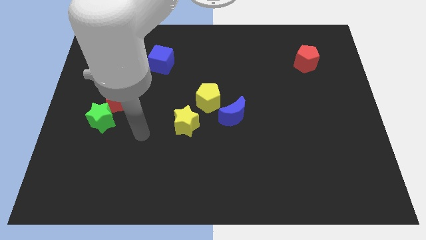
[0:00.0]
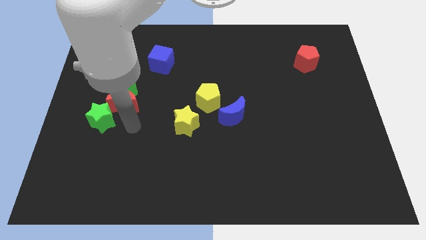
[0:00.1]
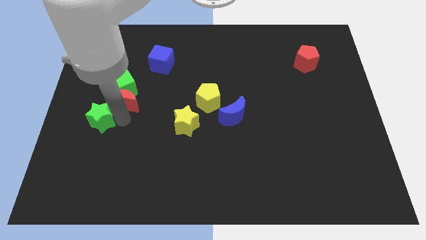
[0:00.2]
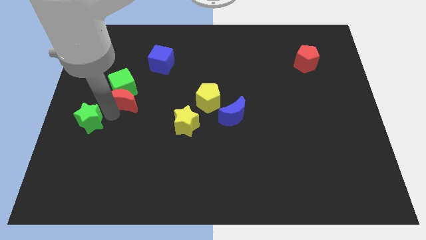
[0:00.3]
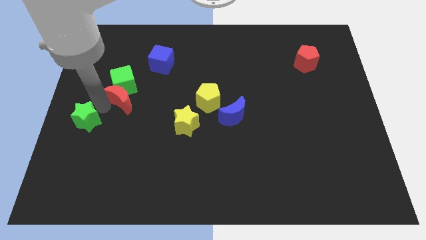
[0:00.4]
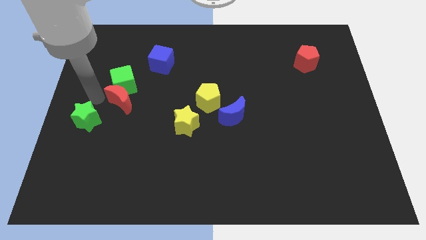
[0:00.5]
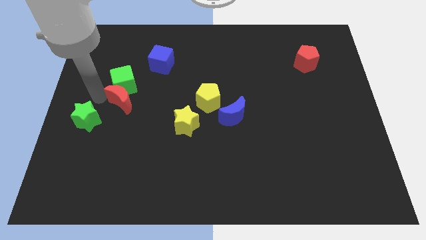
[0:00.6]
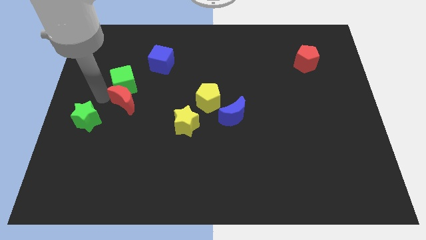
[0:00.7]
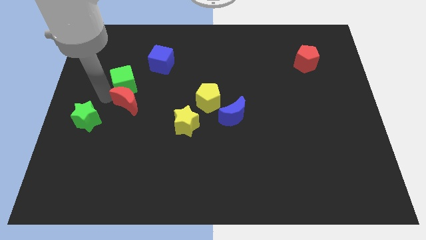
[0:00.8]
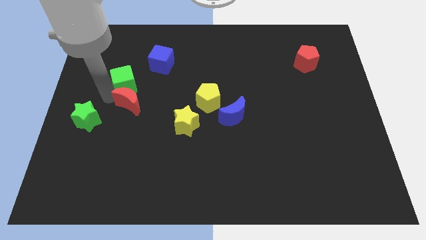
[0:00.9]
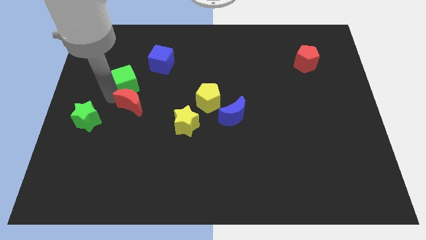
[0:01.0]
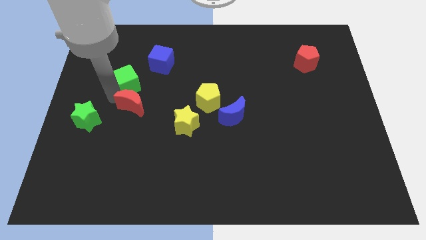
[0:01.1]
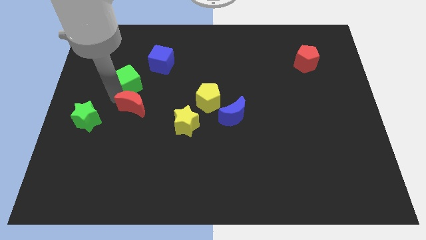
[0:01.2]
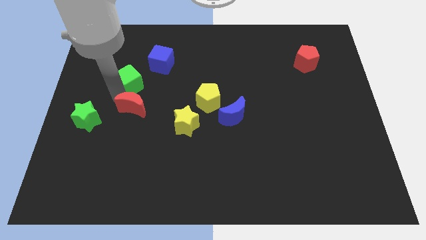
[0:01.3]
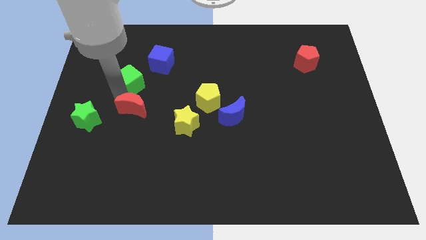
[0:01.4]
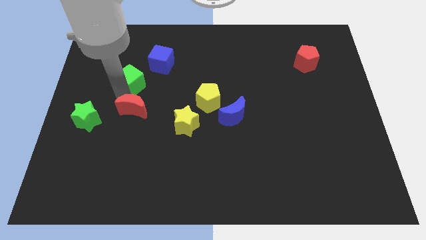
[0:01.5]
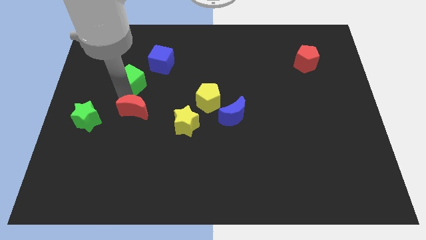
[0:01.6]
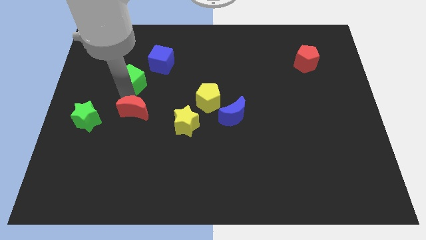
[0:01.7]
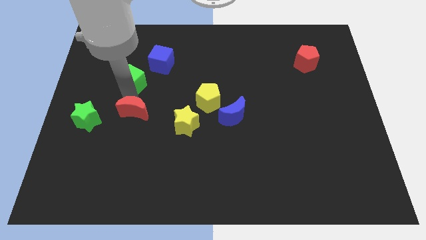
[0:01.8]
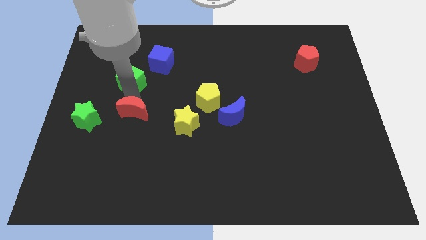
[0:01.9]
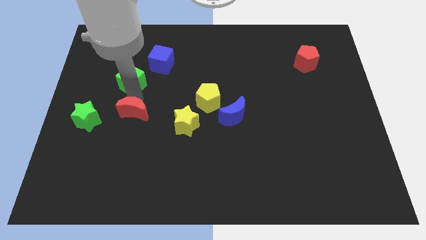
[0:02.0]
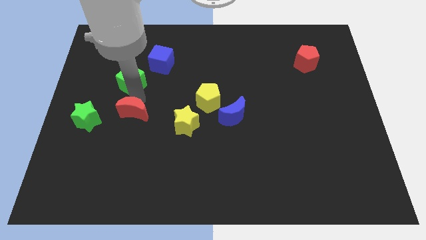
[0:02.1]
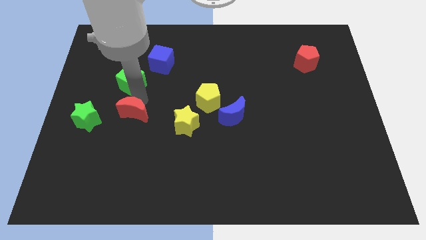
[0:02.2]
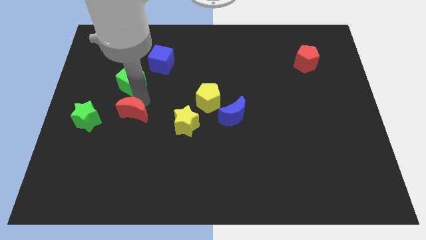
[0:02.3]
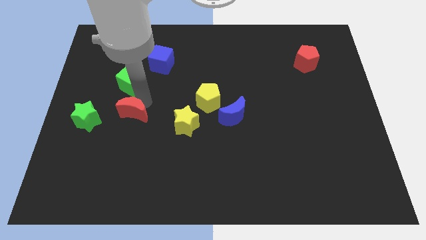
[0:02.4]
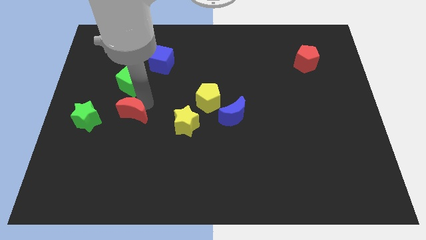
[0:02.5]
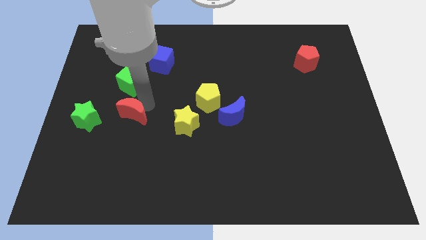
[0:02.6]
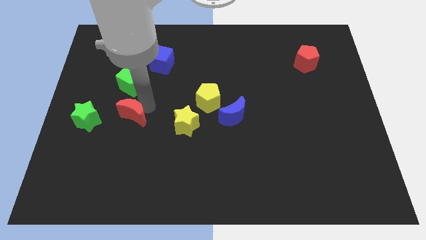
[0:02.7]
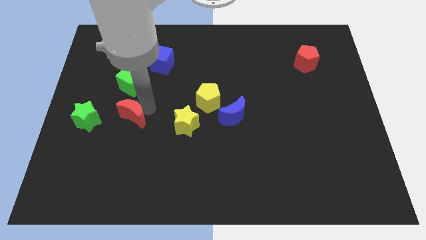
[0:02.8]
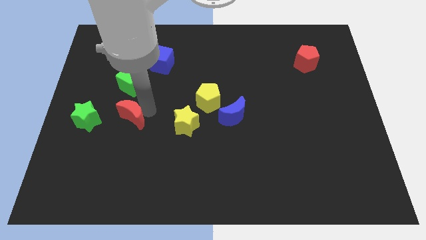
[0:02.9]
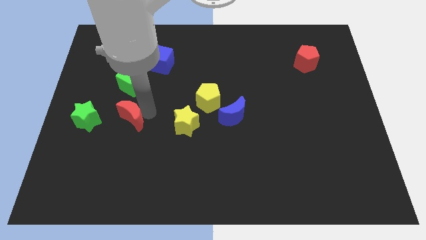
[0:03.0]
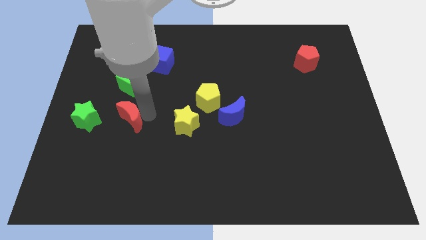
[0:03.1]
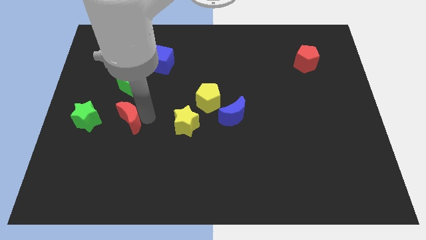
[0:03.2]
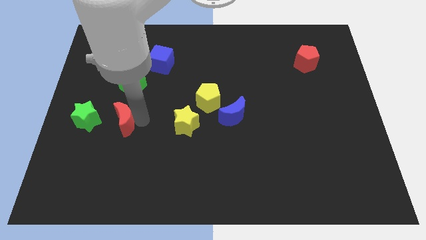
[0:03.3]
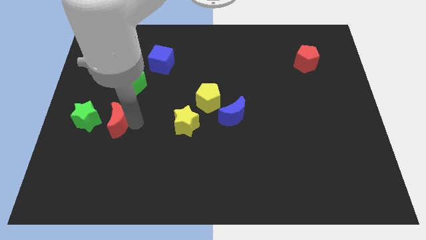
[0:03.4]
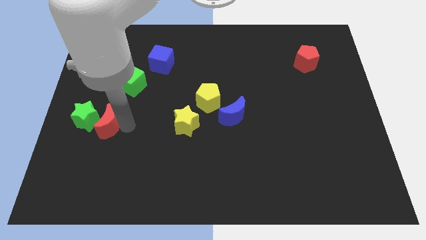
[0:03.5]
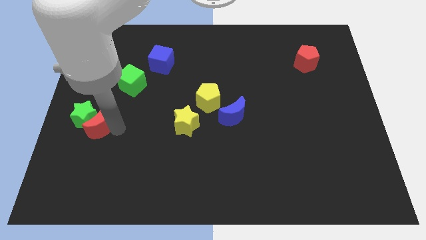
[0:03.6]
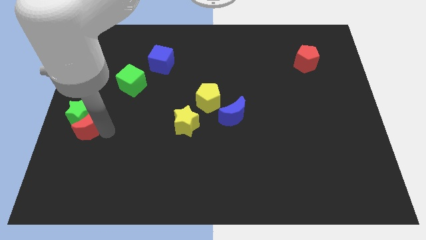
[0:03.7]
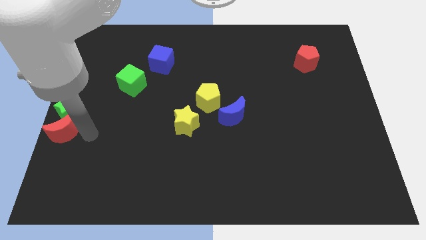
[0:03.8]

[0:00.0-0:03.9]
pull the red moon apart from the green cube and green star

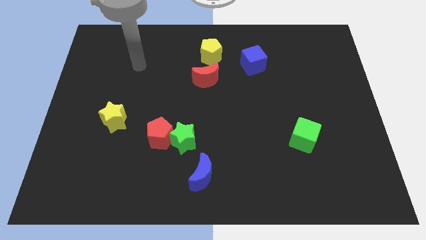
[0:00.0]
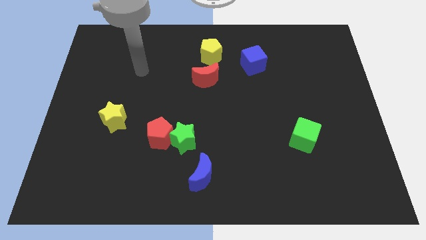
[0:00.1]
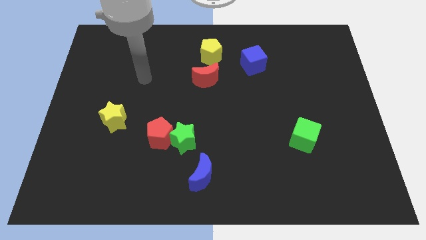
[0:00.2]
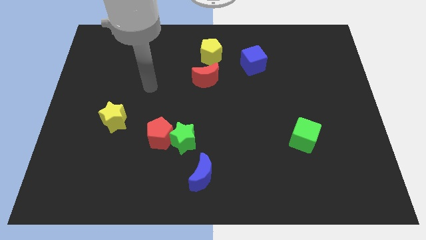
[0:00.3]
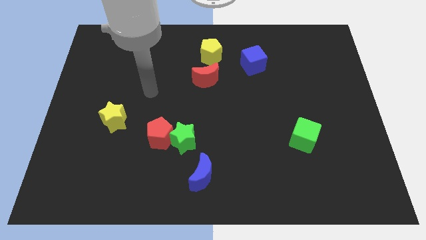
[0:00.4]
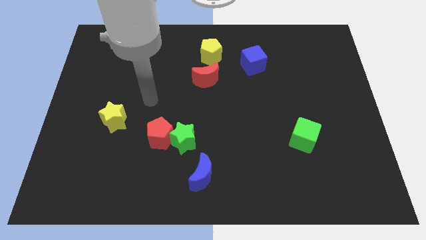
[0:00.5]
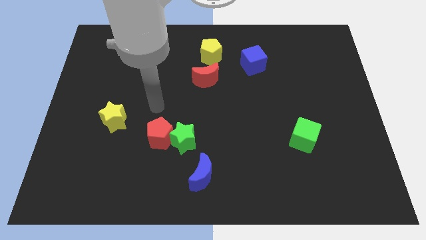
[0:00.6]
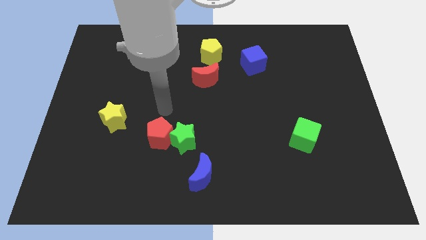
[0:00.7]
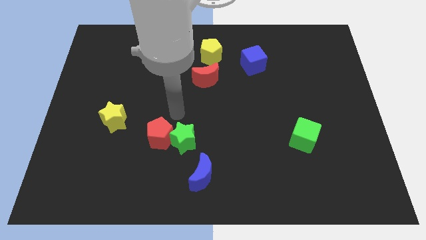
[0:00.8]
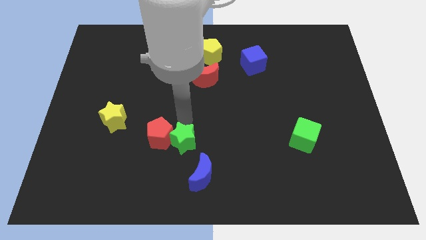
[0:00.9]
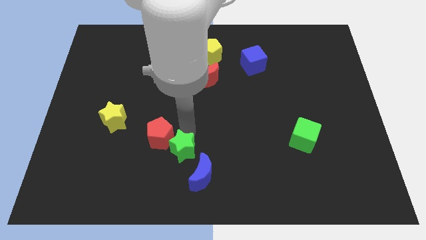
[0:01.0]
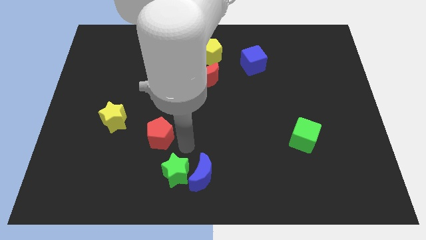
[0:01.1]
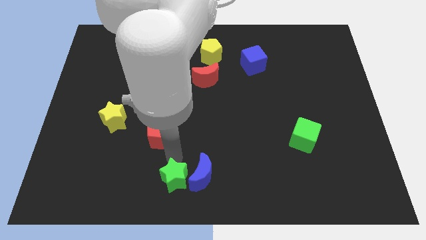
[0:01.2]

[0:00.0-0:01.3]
pull the red pentagon apart from the green star

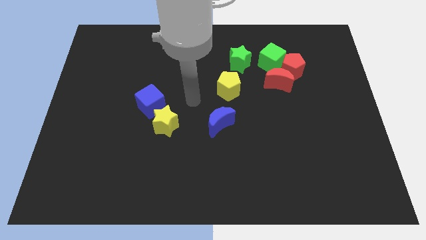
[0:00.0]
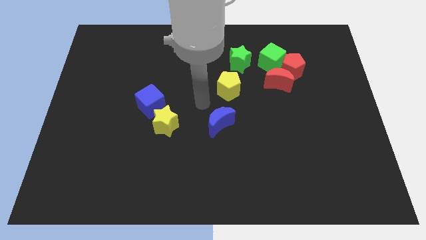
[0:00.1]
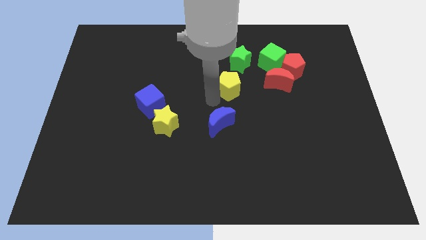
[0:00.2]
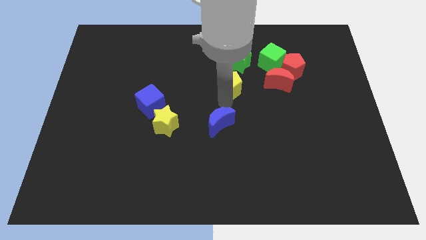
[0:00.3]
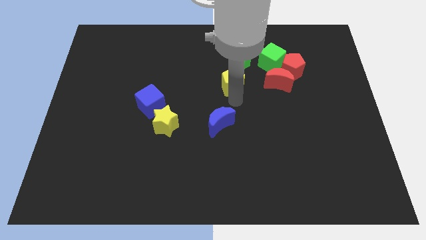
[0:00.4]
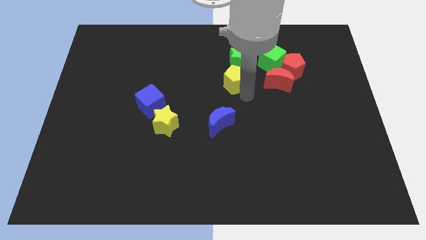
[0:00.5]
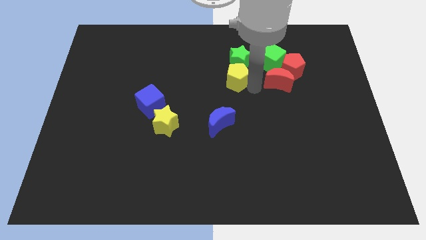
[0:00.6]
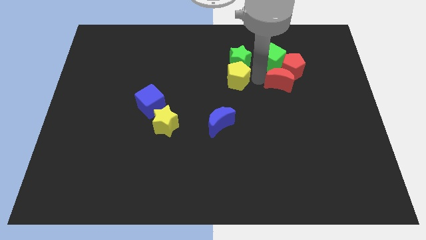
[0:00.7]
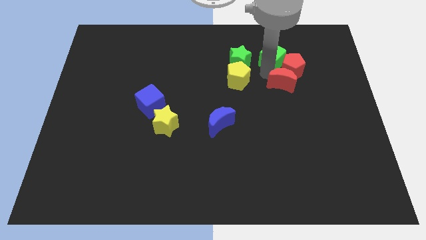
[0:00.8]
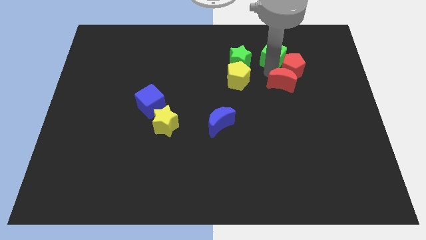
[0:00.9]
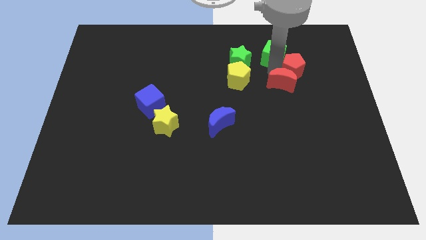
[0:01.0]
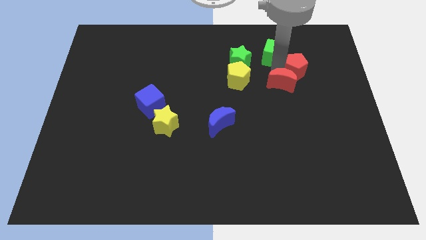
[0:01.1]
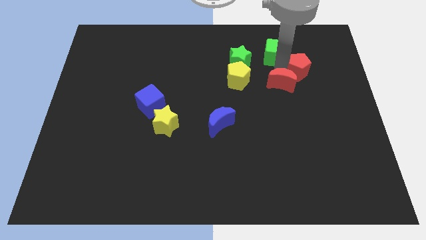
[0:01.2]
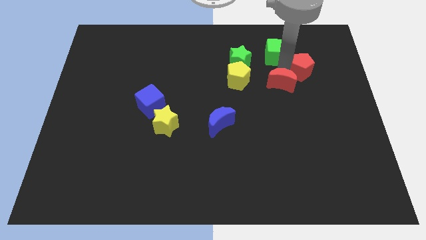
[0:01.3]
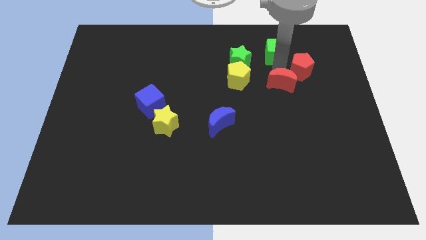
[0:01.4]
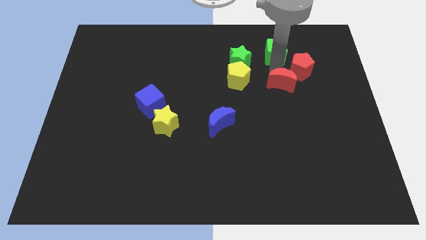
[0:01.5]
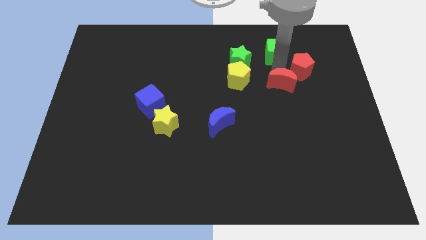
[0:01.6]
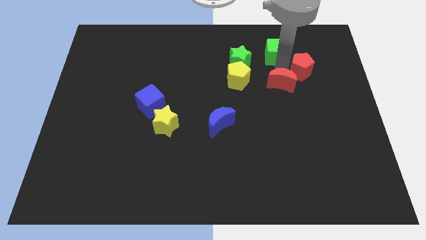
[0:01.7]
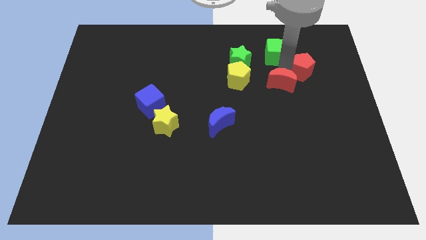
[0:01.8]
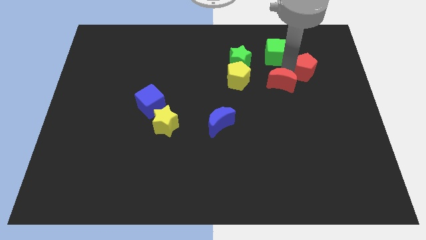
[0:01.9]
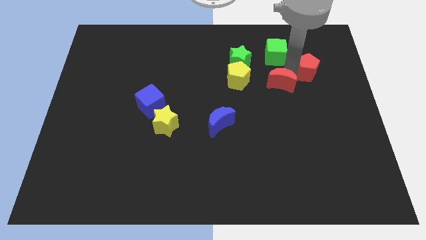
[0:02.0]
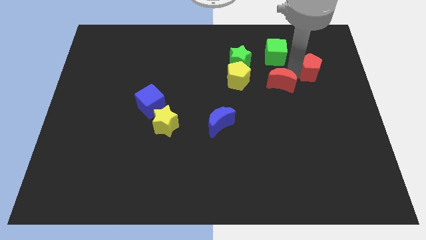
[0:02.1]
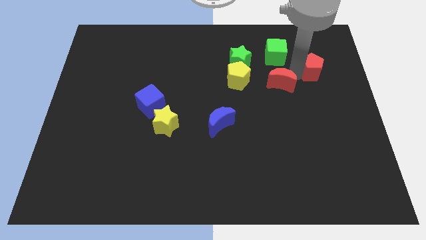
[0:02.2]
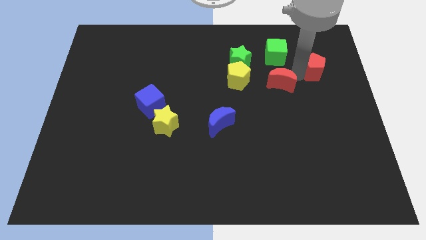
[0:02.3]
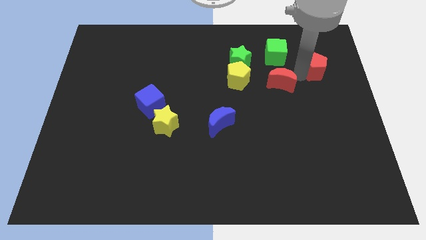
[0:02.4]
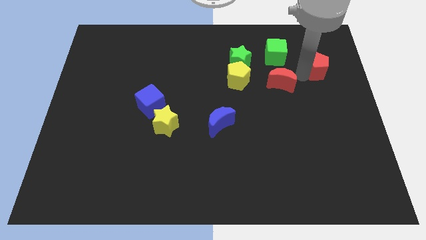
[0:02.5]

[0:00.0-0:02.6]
separate the red pentagon from the red moon and green cube

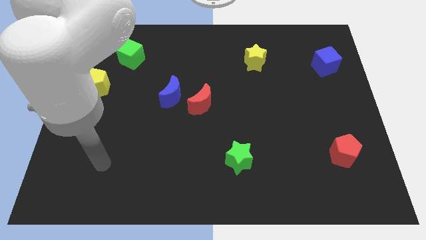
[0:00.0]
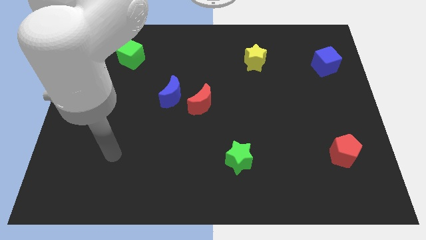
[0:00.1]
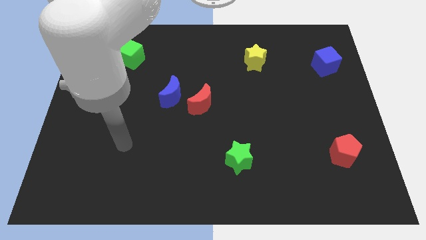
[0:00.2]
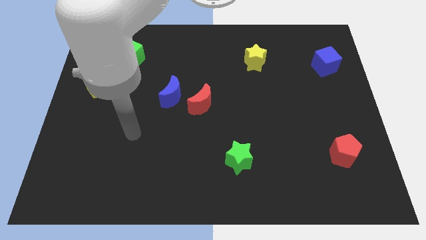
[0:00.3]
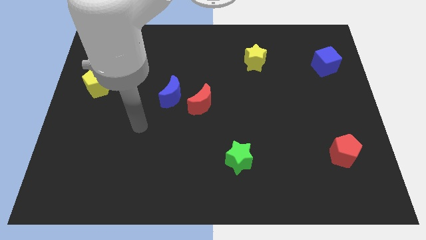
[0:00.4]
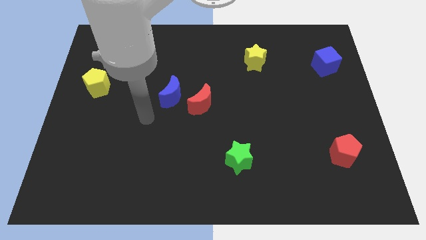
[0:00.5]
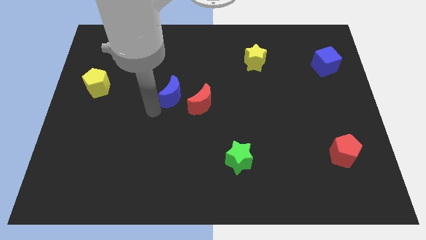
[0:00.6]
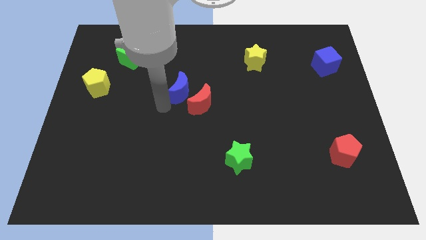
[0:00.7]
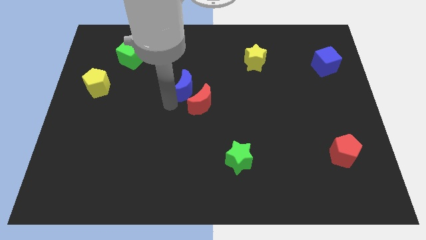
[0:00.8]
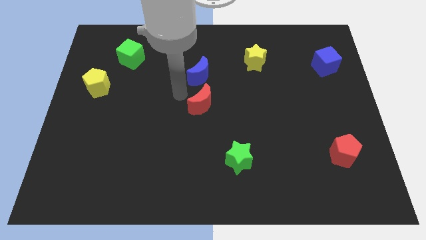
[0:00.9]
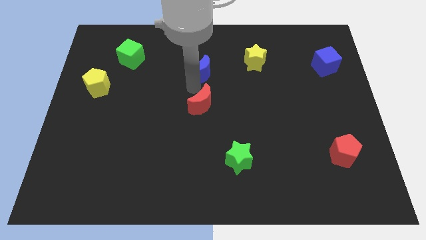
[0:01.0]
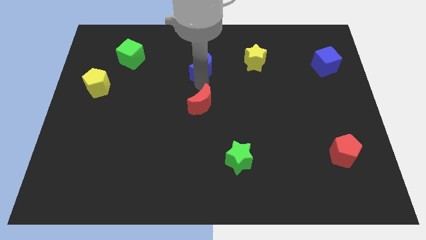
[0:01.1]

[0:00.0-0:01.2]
move the red moon away from the blue moon

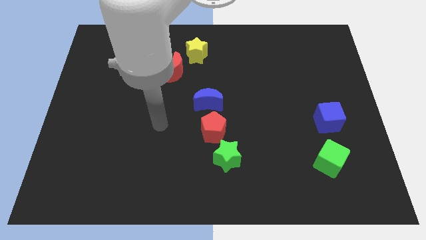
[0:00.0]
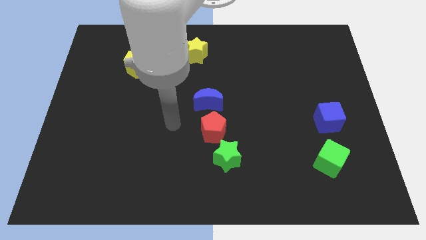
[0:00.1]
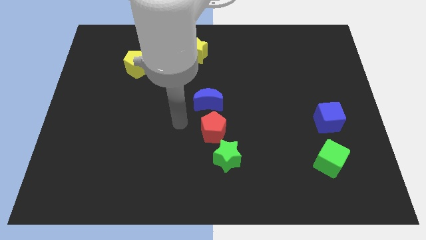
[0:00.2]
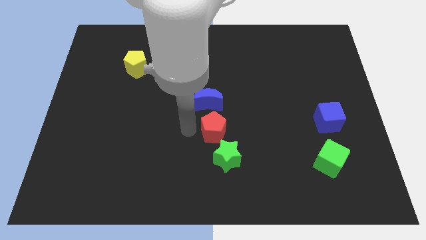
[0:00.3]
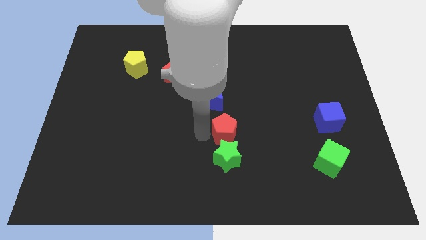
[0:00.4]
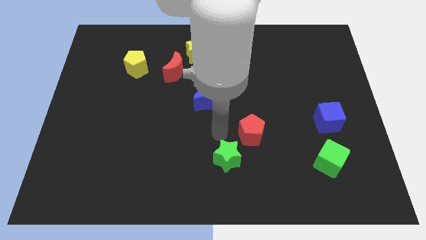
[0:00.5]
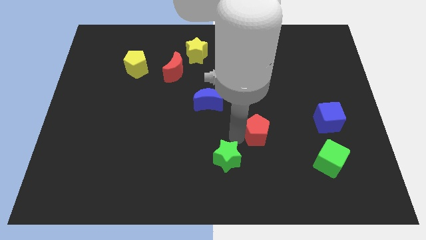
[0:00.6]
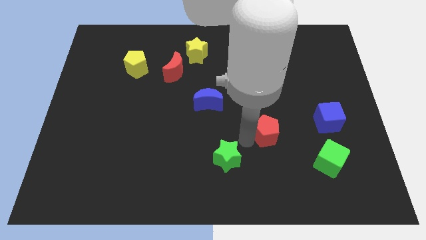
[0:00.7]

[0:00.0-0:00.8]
move the green star away from the red pentagon
